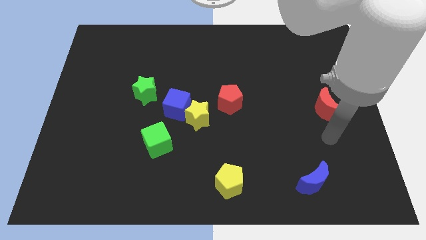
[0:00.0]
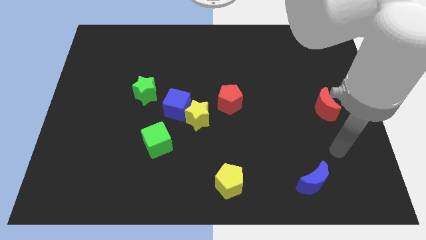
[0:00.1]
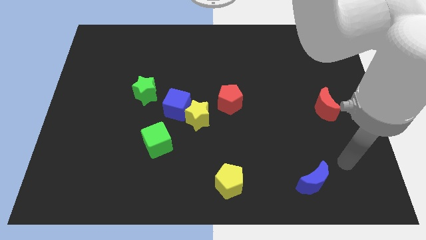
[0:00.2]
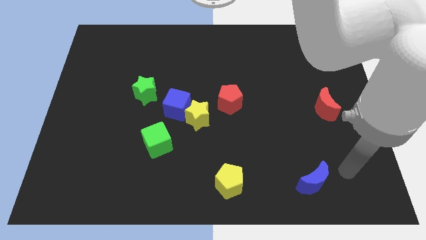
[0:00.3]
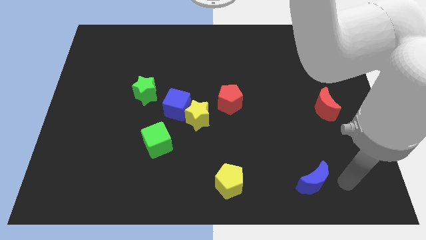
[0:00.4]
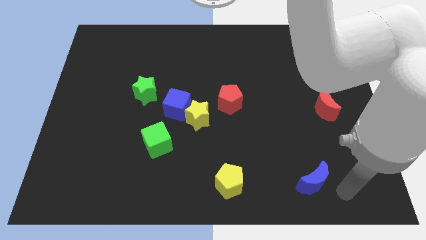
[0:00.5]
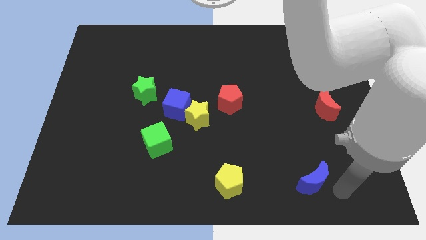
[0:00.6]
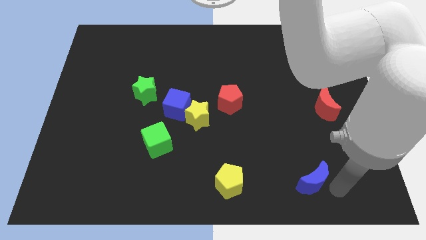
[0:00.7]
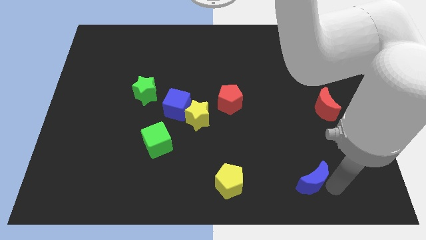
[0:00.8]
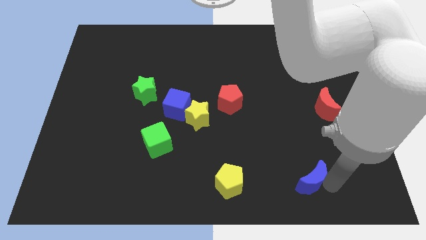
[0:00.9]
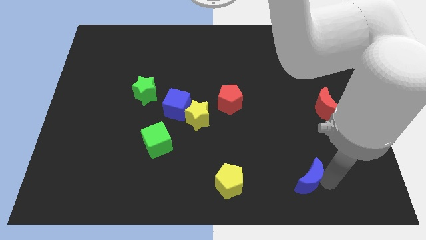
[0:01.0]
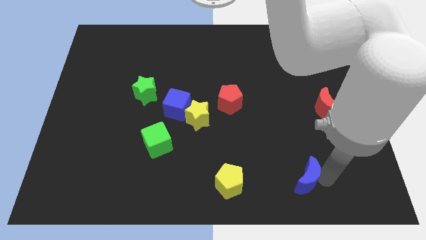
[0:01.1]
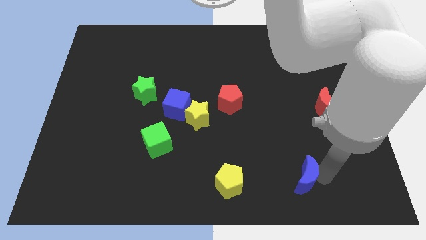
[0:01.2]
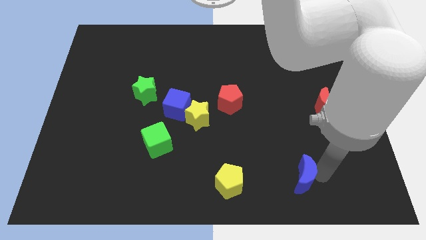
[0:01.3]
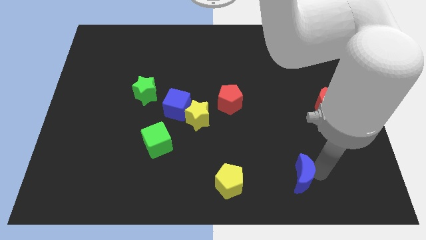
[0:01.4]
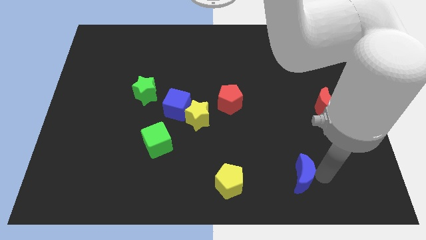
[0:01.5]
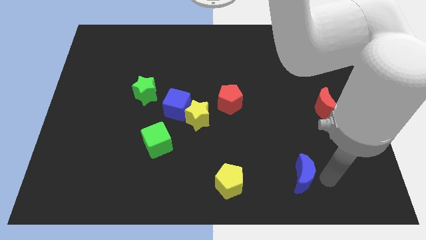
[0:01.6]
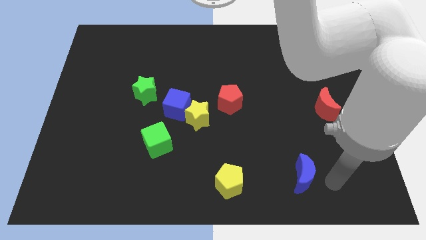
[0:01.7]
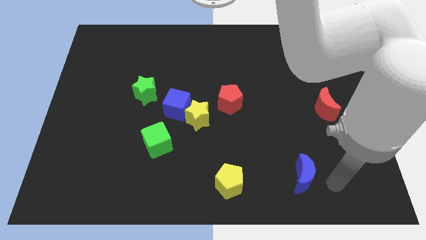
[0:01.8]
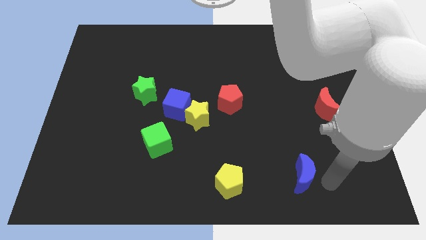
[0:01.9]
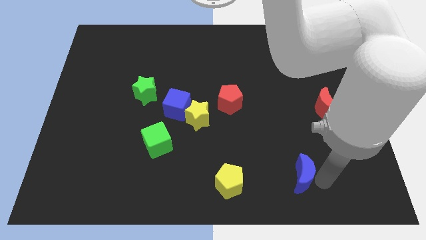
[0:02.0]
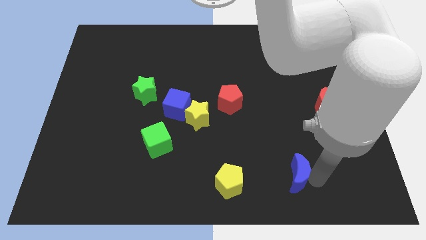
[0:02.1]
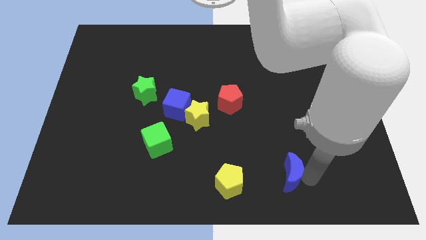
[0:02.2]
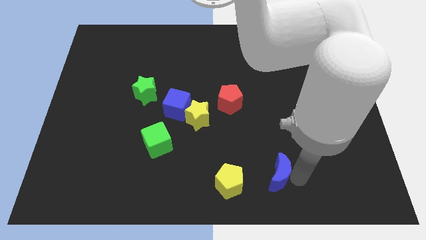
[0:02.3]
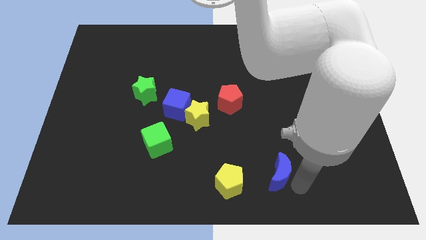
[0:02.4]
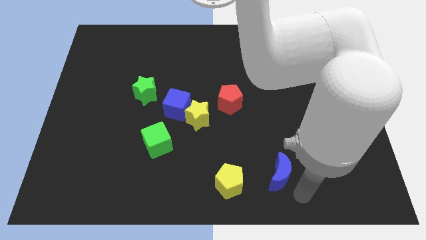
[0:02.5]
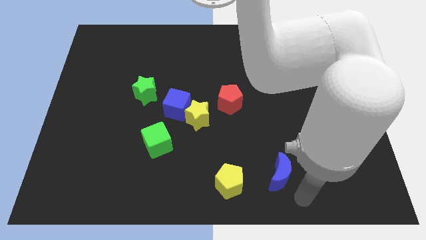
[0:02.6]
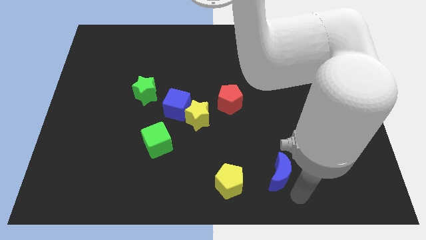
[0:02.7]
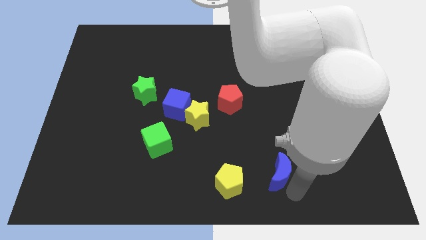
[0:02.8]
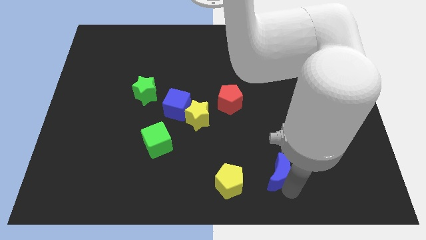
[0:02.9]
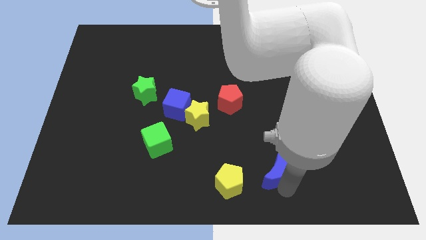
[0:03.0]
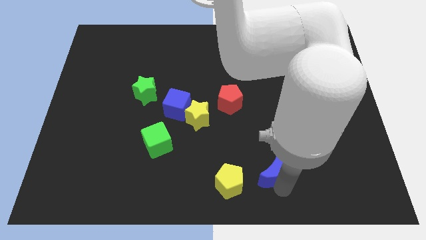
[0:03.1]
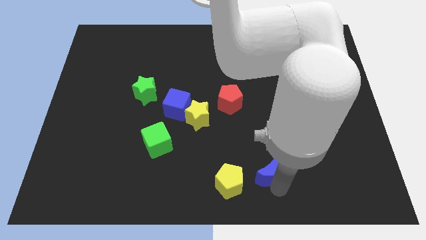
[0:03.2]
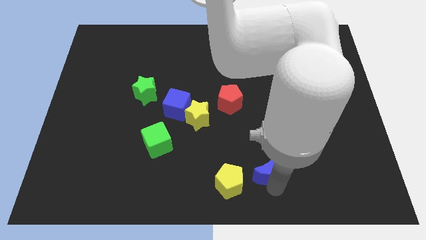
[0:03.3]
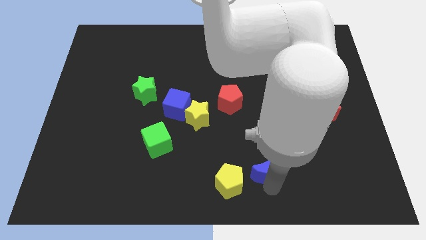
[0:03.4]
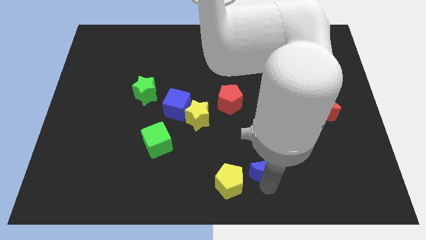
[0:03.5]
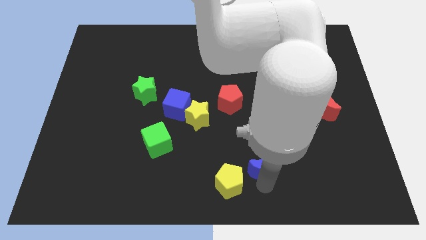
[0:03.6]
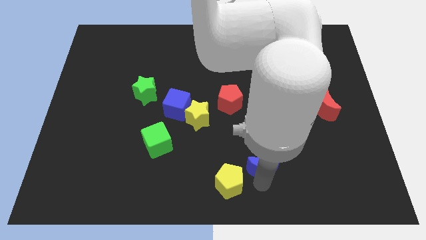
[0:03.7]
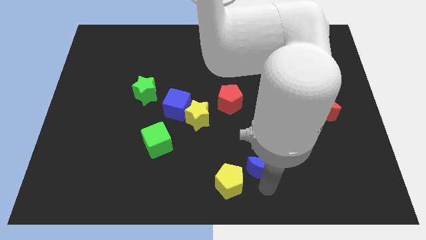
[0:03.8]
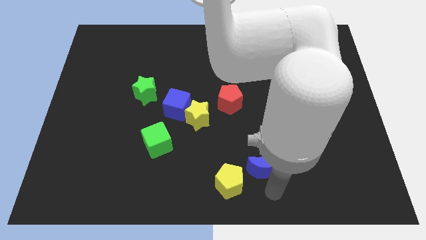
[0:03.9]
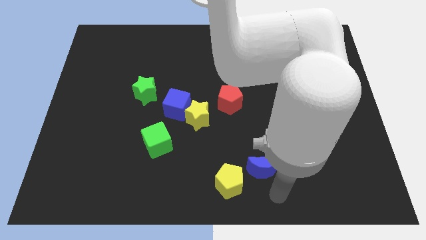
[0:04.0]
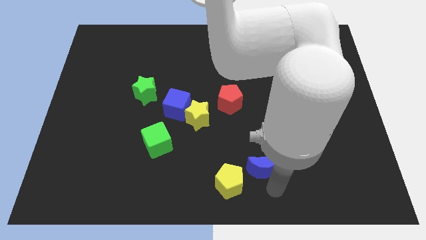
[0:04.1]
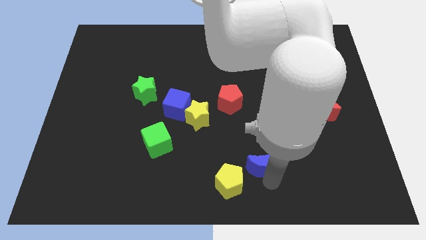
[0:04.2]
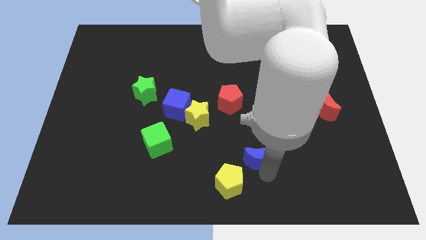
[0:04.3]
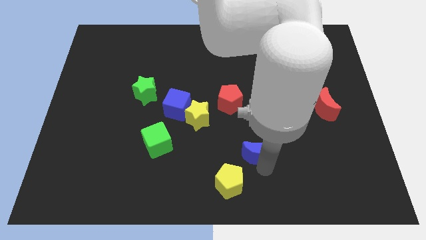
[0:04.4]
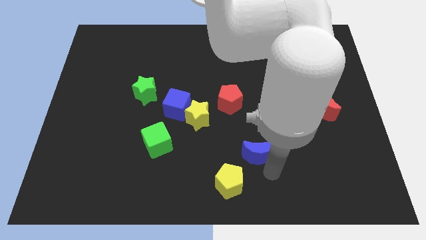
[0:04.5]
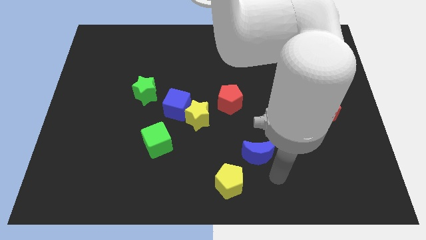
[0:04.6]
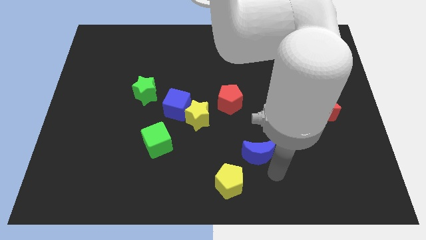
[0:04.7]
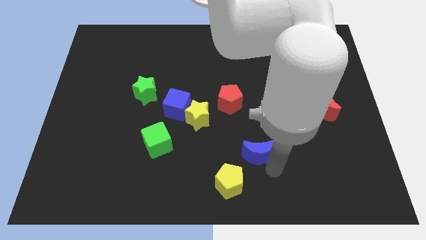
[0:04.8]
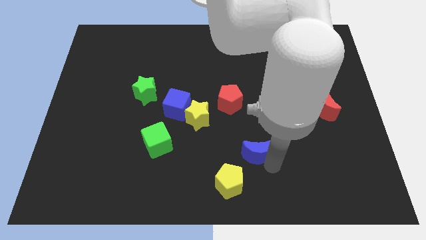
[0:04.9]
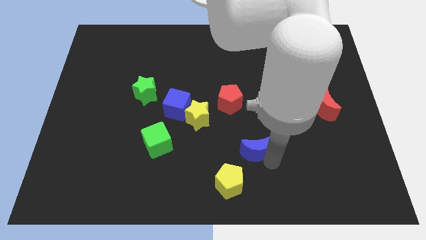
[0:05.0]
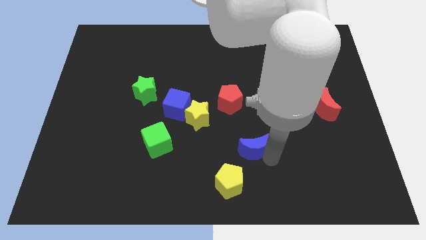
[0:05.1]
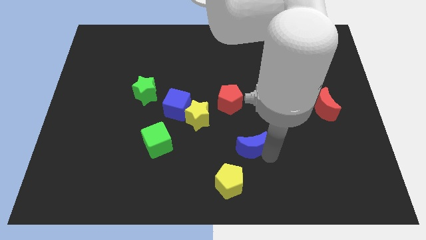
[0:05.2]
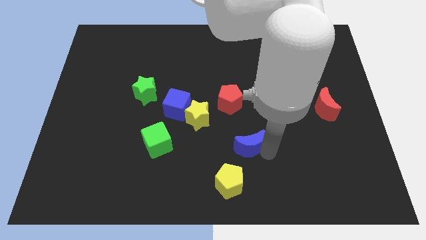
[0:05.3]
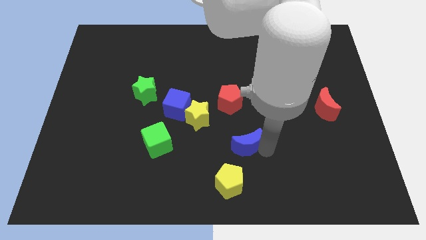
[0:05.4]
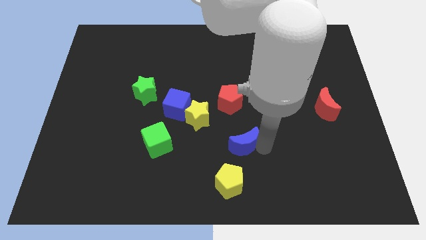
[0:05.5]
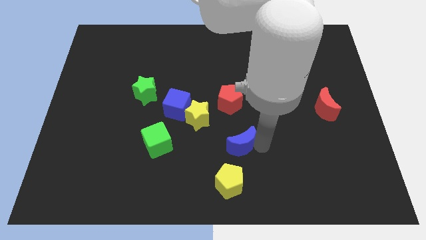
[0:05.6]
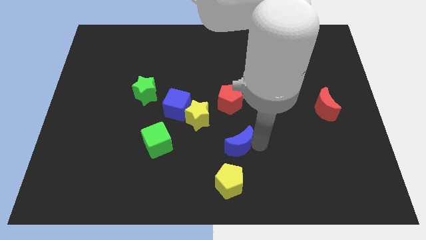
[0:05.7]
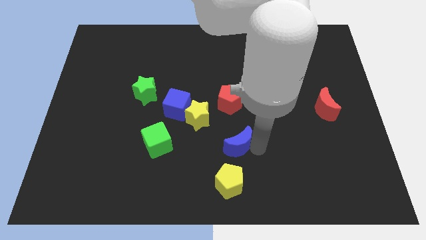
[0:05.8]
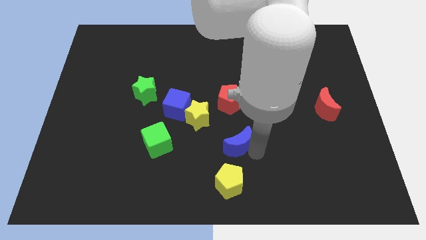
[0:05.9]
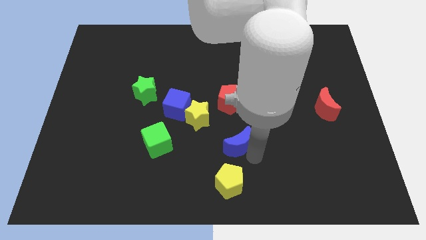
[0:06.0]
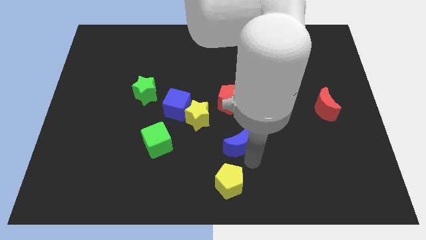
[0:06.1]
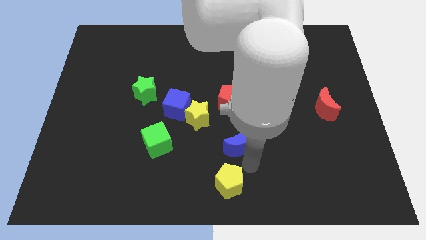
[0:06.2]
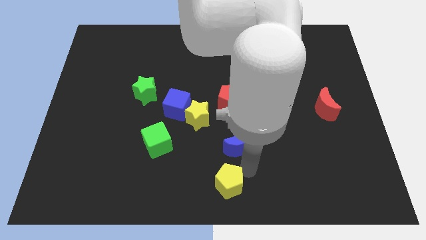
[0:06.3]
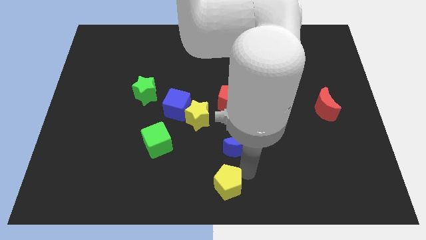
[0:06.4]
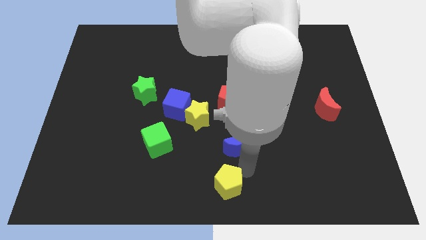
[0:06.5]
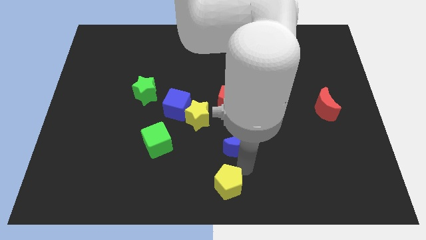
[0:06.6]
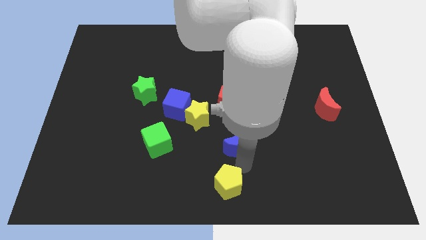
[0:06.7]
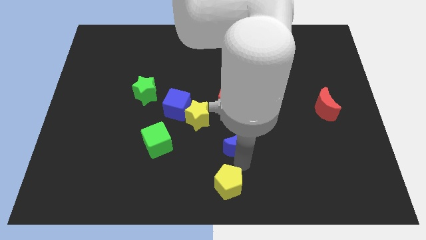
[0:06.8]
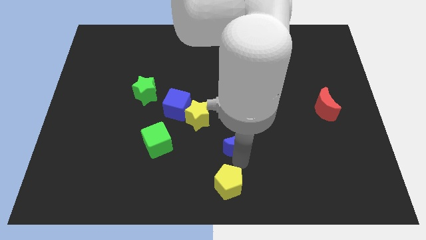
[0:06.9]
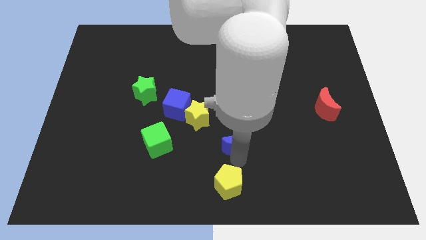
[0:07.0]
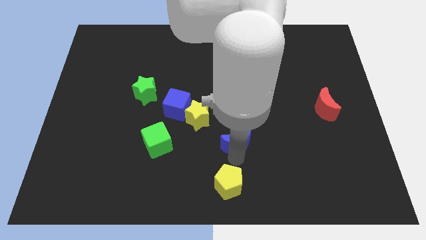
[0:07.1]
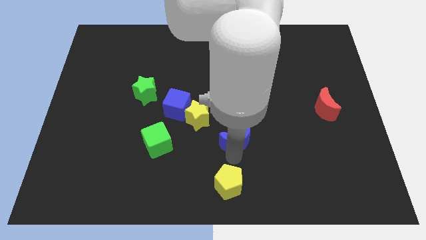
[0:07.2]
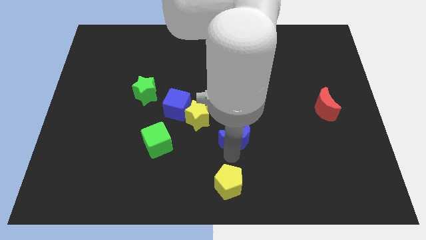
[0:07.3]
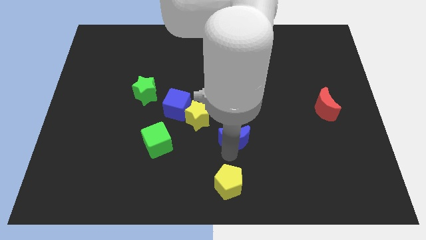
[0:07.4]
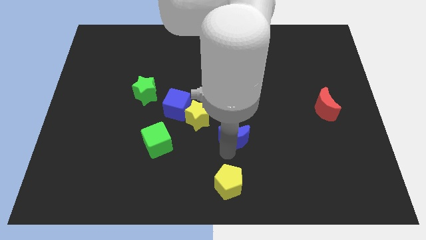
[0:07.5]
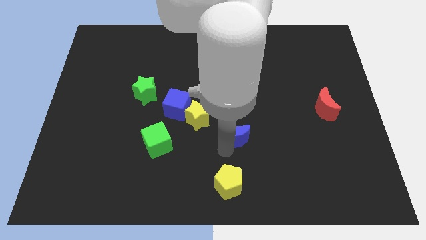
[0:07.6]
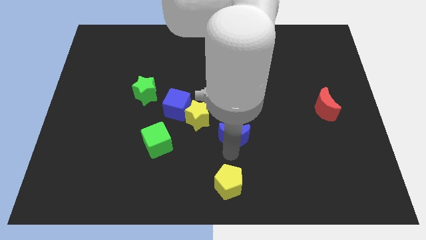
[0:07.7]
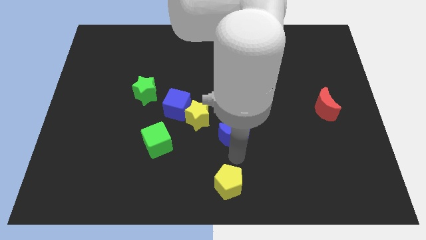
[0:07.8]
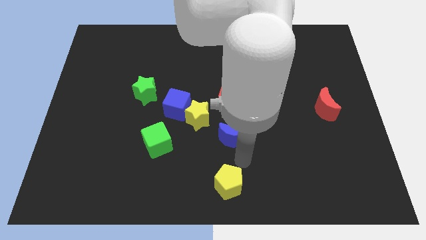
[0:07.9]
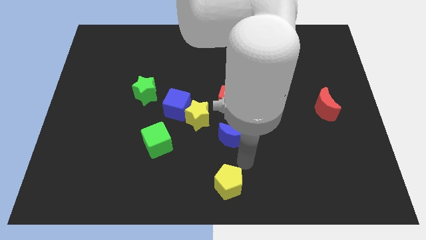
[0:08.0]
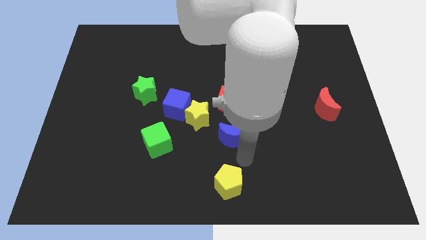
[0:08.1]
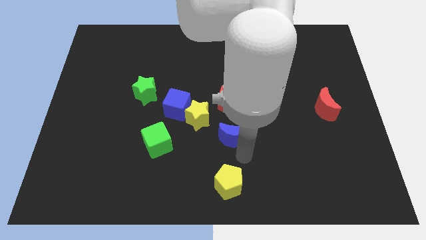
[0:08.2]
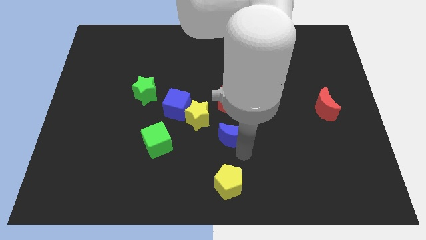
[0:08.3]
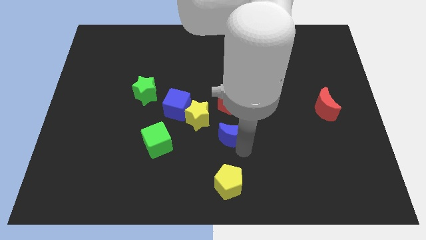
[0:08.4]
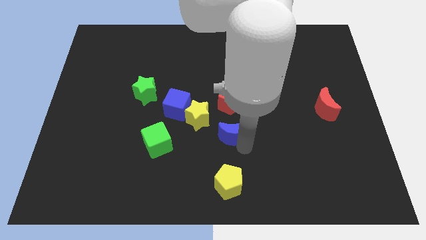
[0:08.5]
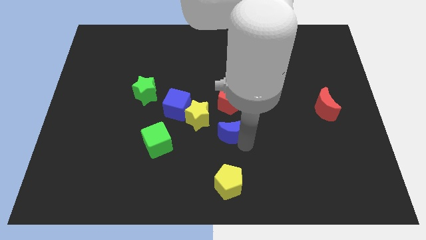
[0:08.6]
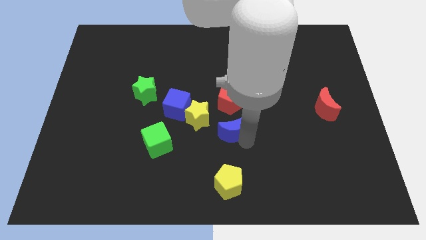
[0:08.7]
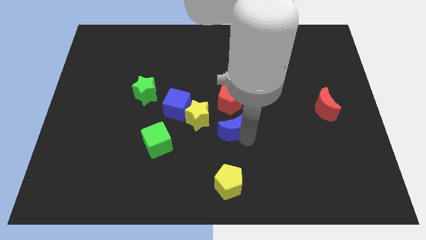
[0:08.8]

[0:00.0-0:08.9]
push the blue moon upwards and then to the left
